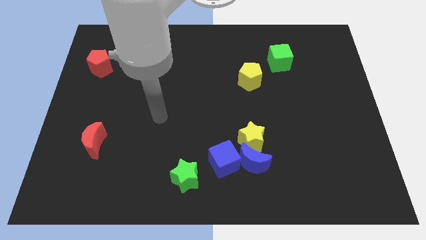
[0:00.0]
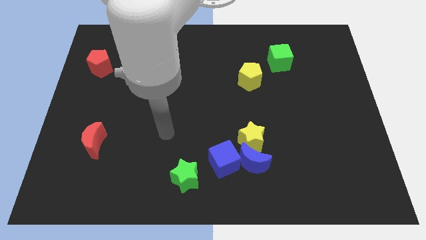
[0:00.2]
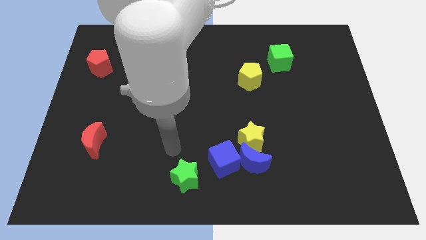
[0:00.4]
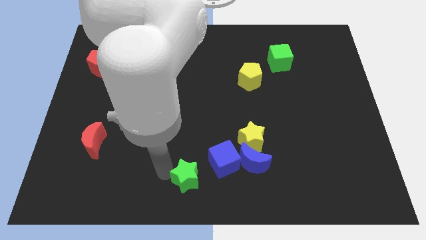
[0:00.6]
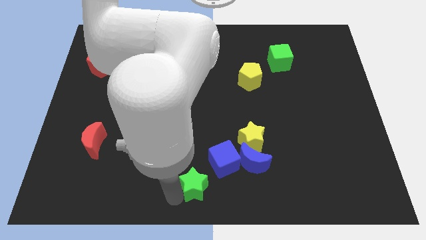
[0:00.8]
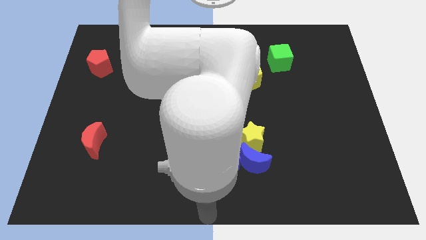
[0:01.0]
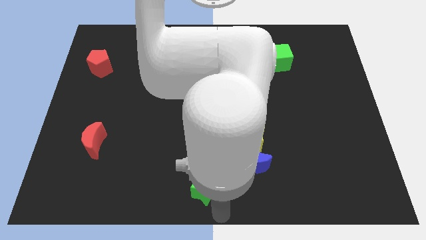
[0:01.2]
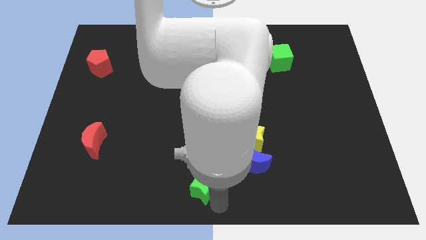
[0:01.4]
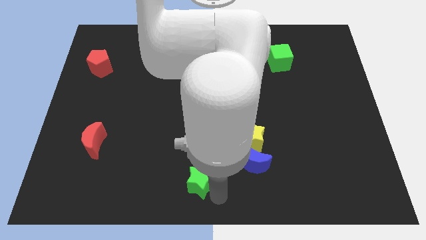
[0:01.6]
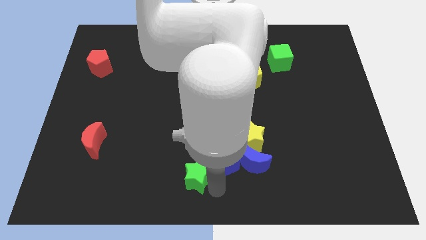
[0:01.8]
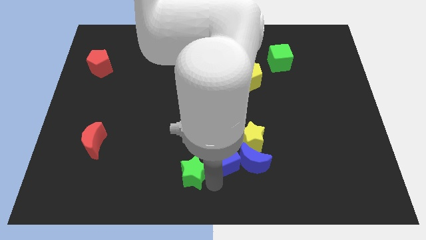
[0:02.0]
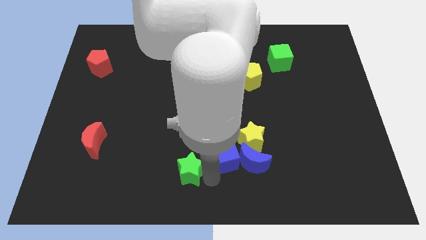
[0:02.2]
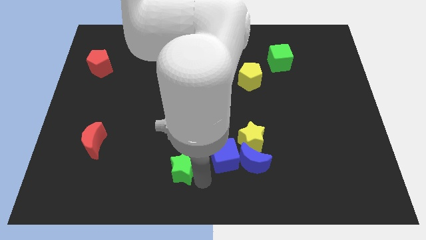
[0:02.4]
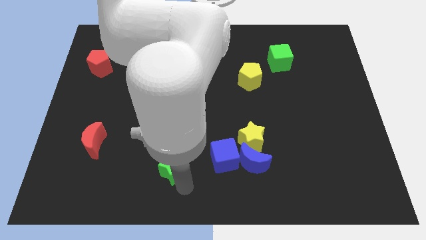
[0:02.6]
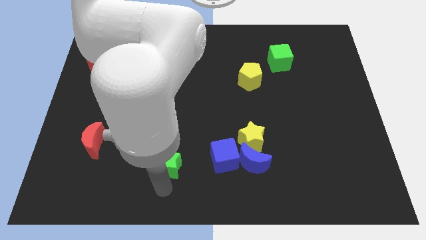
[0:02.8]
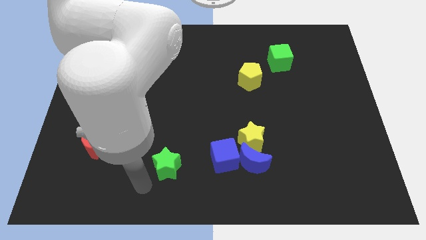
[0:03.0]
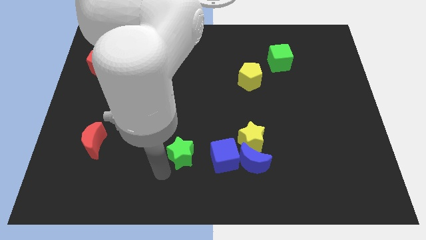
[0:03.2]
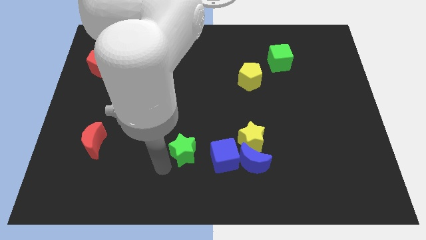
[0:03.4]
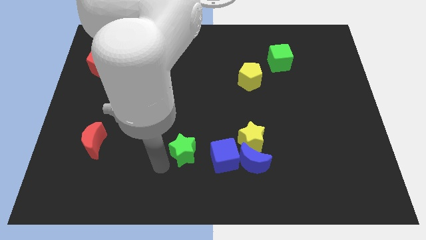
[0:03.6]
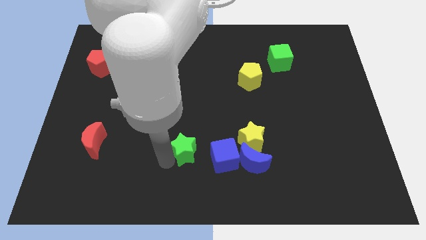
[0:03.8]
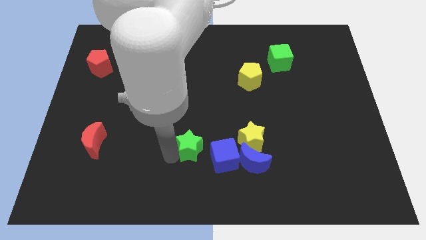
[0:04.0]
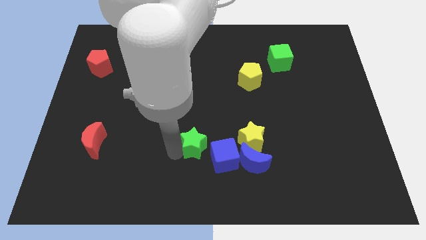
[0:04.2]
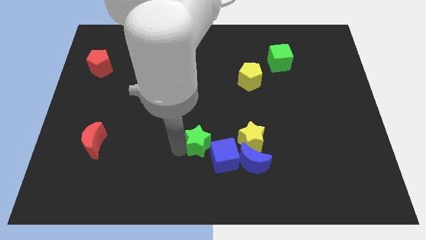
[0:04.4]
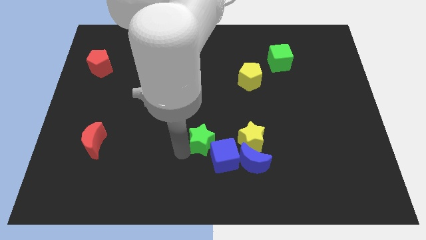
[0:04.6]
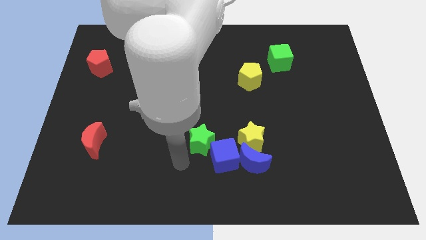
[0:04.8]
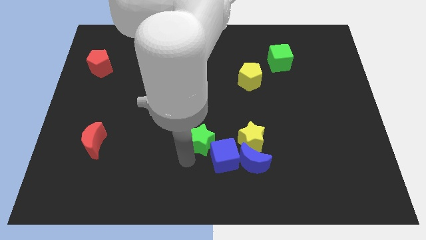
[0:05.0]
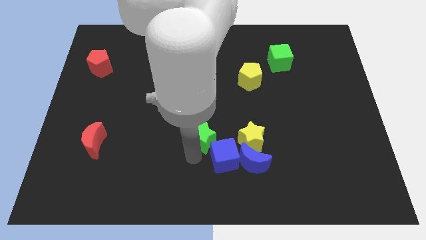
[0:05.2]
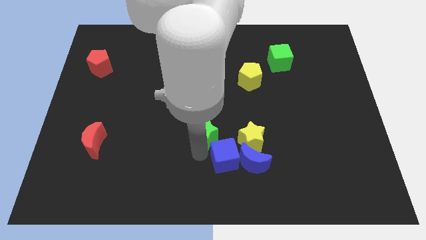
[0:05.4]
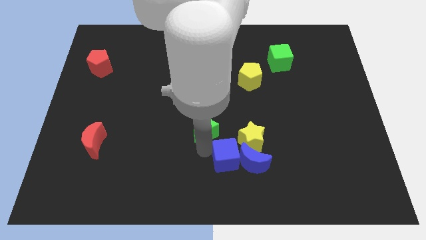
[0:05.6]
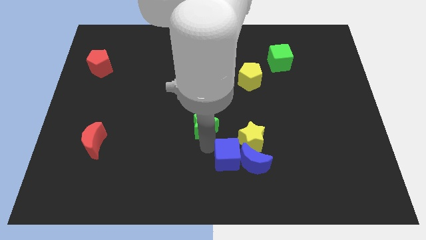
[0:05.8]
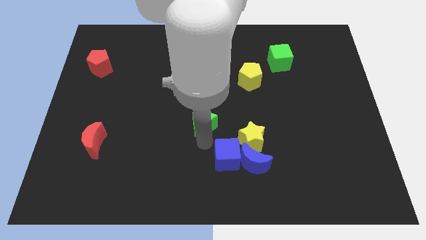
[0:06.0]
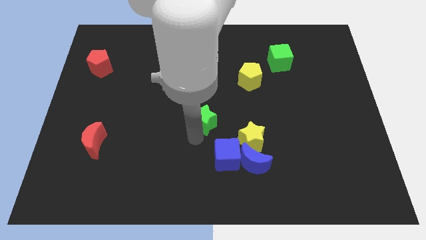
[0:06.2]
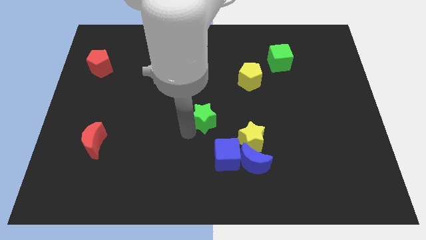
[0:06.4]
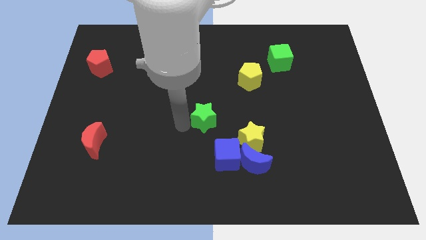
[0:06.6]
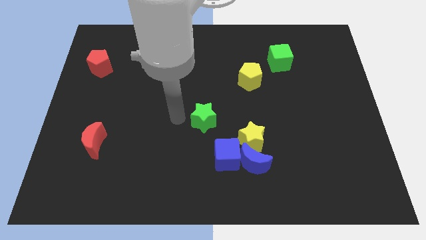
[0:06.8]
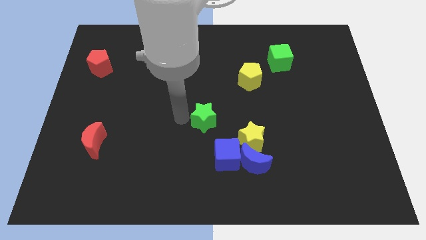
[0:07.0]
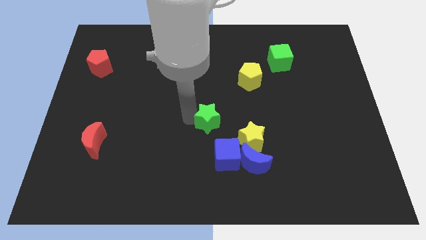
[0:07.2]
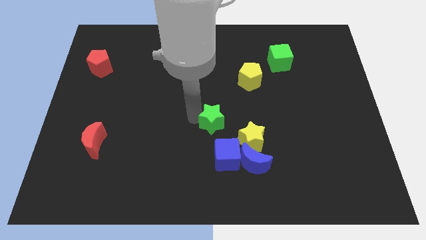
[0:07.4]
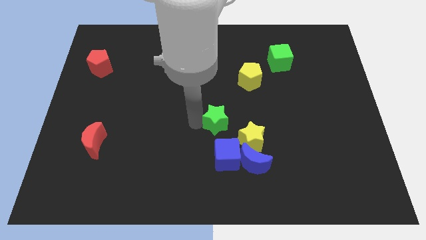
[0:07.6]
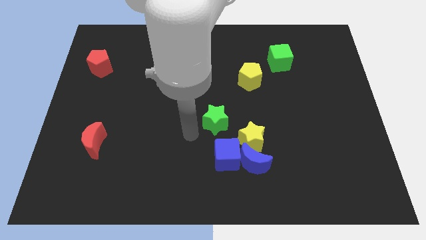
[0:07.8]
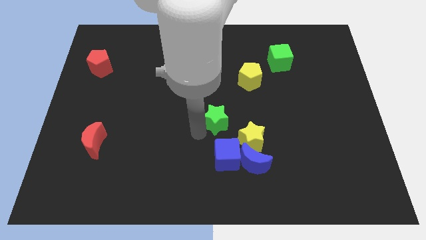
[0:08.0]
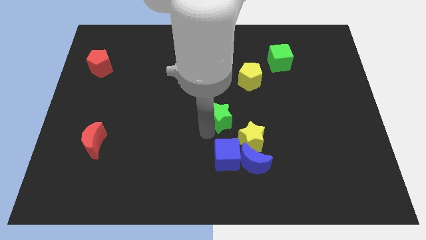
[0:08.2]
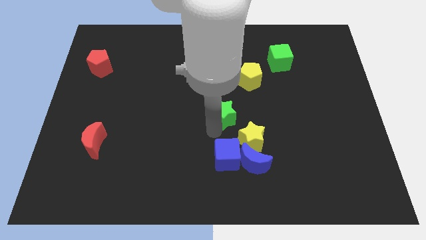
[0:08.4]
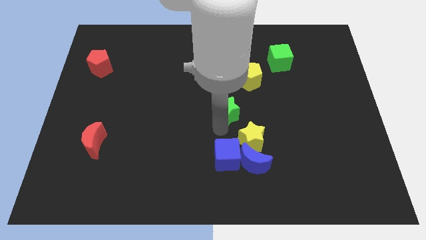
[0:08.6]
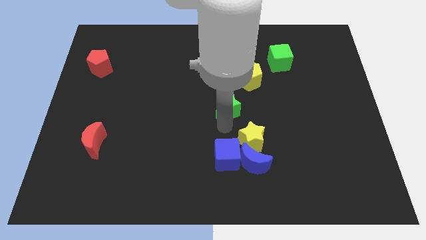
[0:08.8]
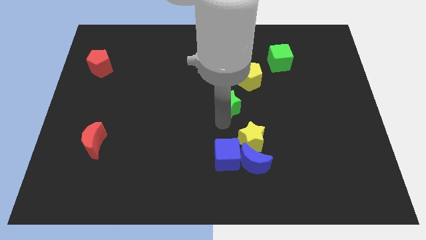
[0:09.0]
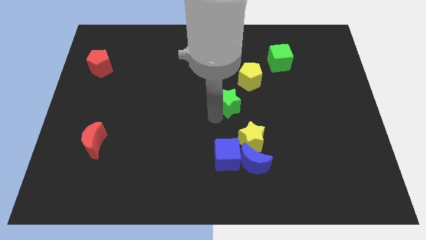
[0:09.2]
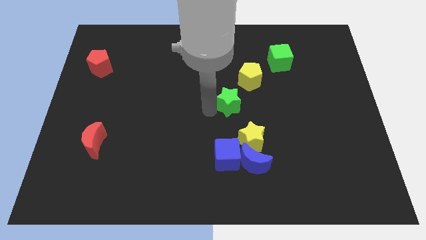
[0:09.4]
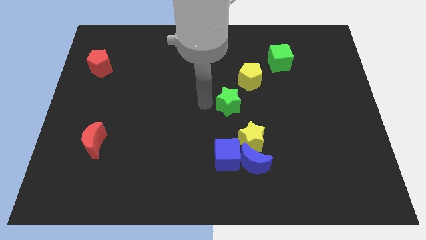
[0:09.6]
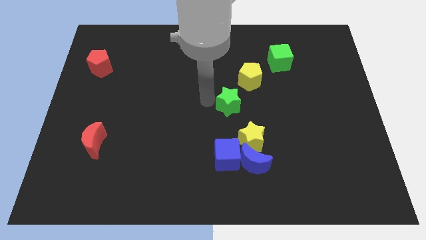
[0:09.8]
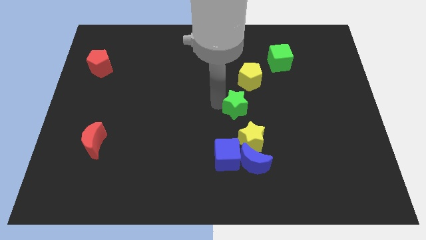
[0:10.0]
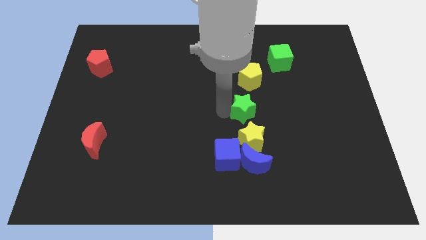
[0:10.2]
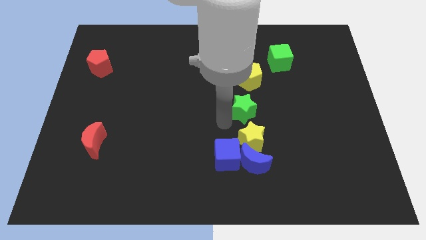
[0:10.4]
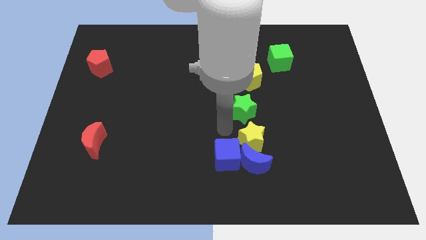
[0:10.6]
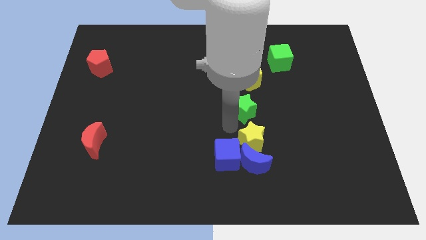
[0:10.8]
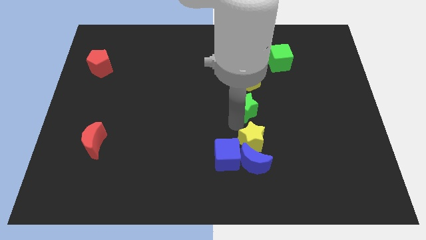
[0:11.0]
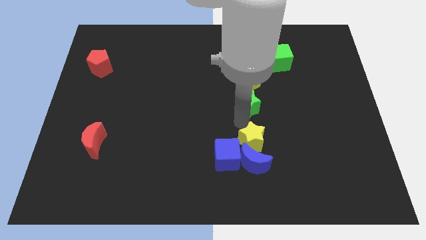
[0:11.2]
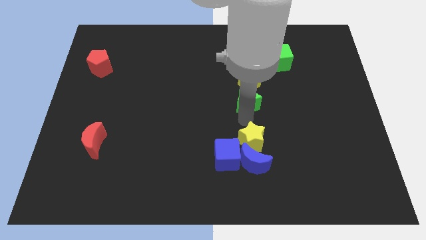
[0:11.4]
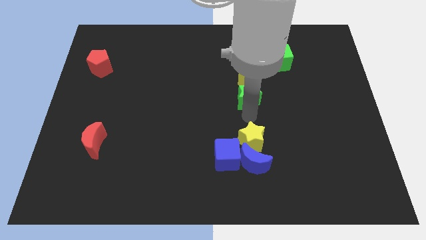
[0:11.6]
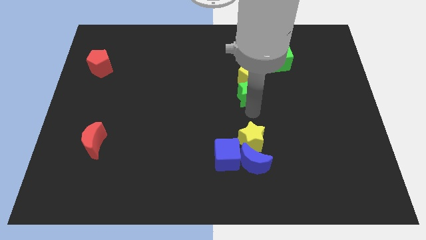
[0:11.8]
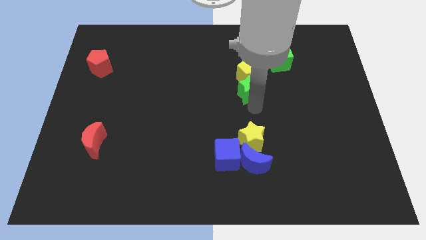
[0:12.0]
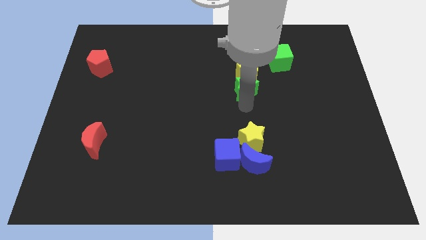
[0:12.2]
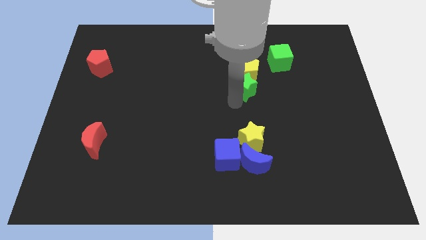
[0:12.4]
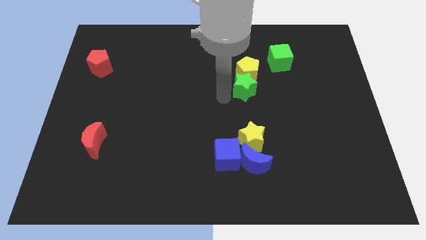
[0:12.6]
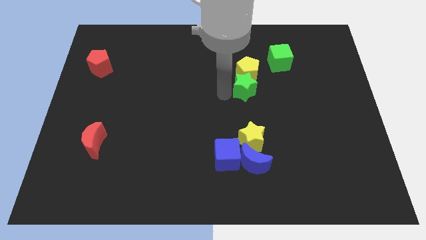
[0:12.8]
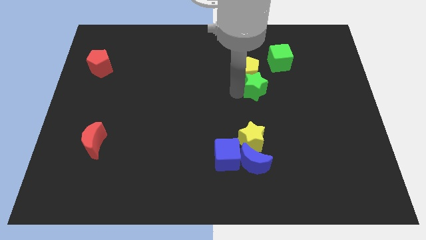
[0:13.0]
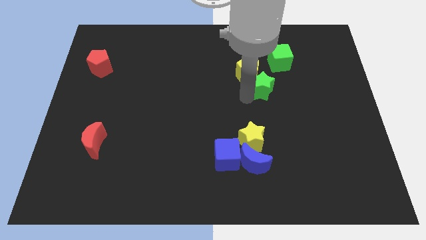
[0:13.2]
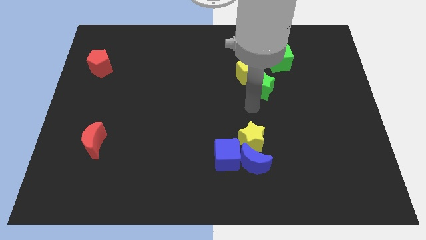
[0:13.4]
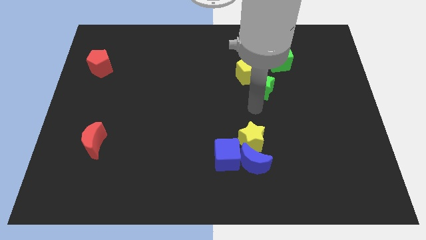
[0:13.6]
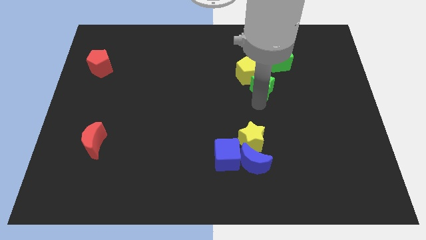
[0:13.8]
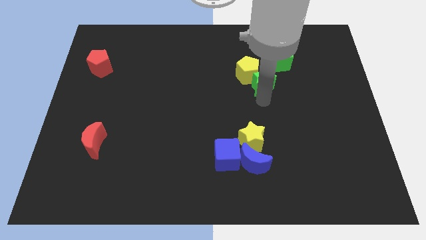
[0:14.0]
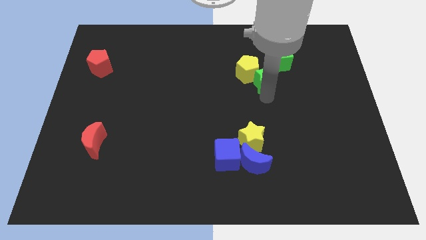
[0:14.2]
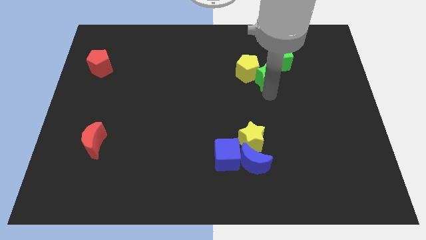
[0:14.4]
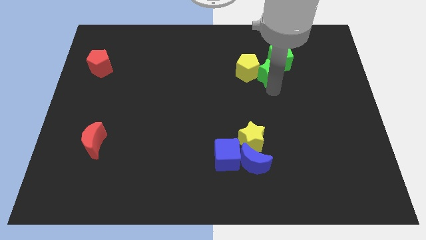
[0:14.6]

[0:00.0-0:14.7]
slide the green star to the green cube
